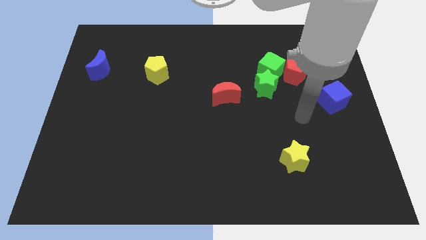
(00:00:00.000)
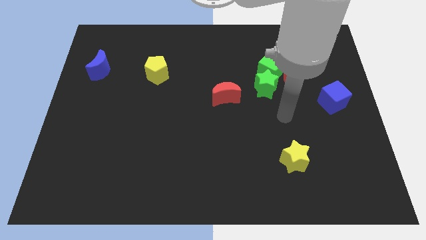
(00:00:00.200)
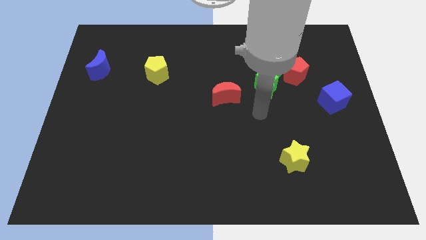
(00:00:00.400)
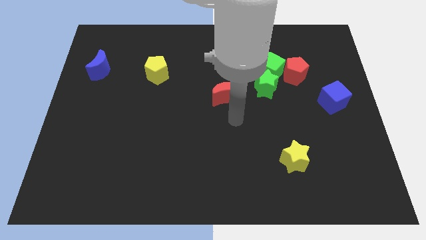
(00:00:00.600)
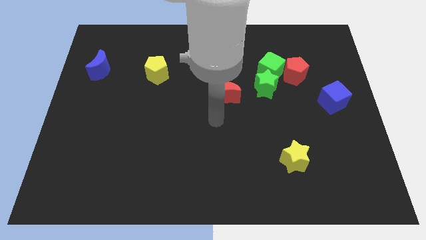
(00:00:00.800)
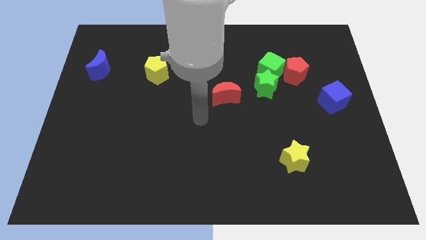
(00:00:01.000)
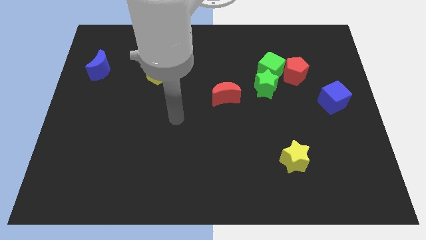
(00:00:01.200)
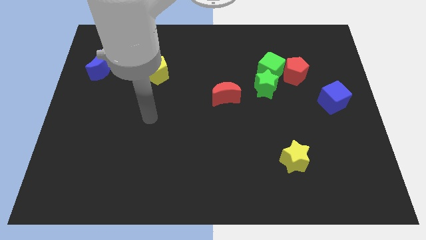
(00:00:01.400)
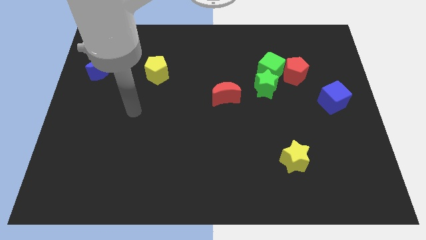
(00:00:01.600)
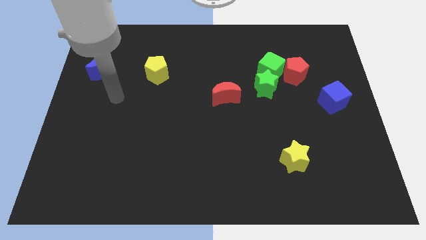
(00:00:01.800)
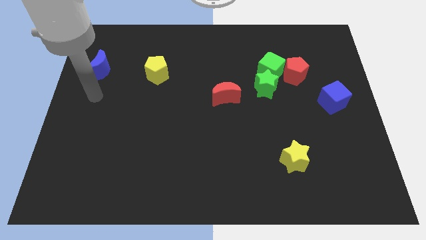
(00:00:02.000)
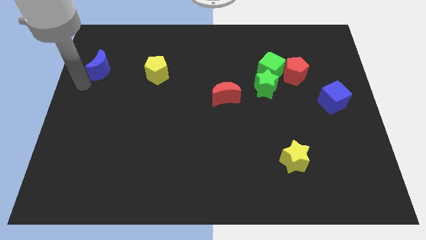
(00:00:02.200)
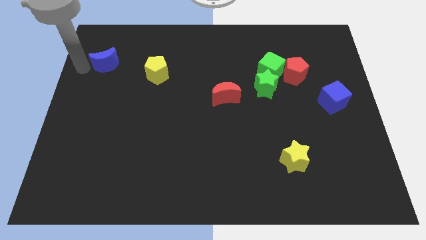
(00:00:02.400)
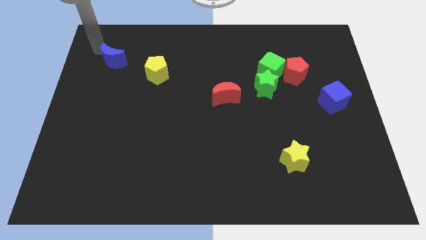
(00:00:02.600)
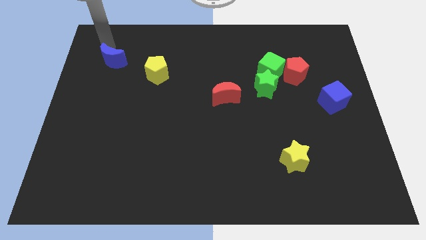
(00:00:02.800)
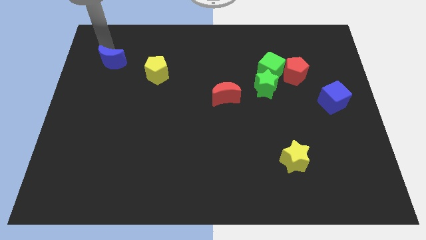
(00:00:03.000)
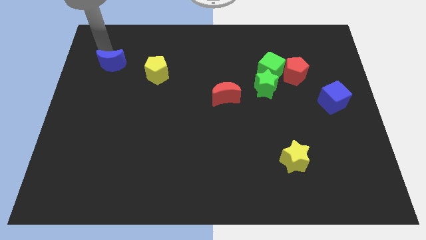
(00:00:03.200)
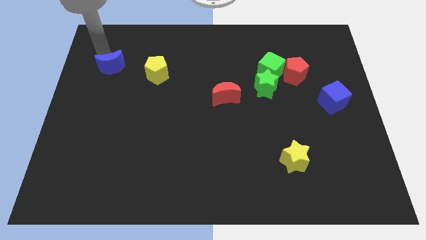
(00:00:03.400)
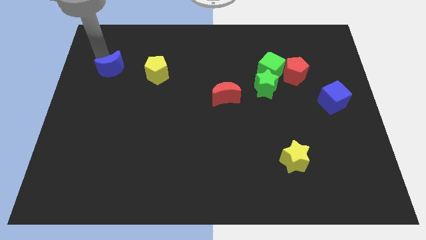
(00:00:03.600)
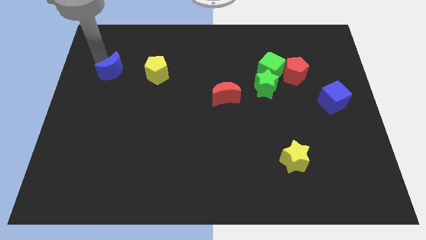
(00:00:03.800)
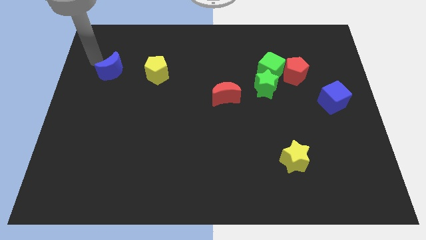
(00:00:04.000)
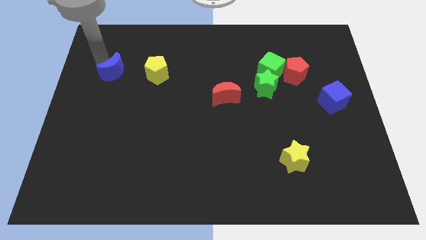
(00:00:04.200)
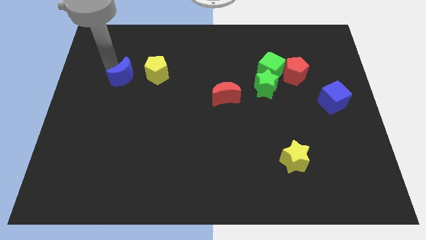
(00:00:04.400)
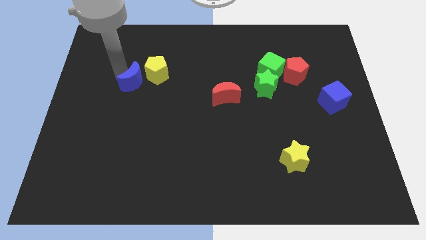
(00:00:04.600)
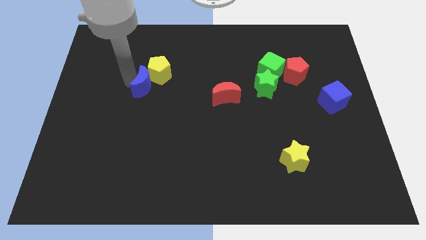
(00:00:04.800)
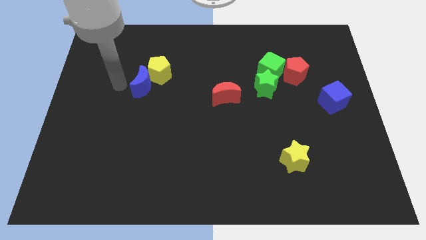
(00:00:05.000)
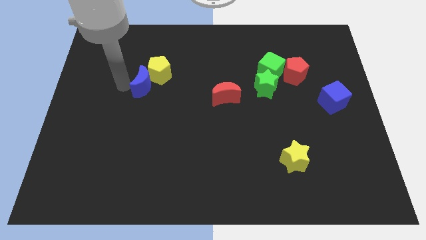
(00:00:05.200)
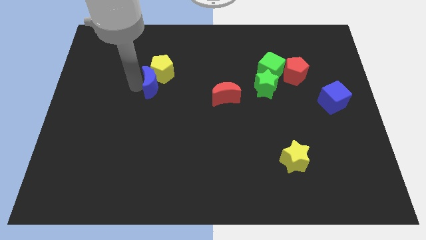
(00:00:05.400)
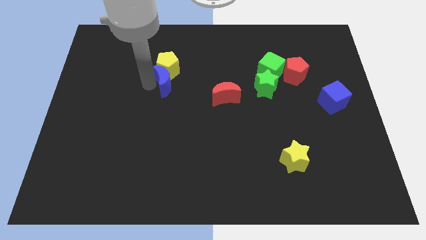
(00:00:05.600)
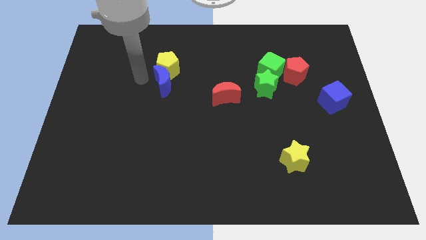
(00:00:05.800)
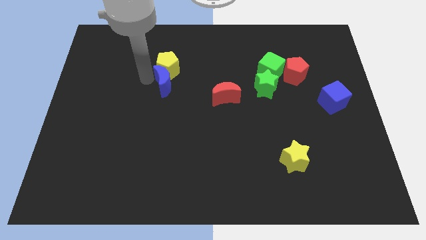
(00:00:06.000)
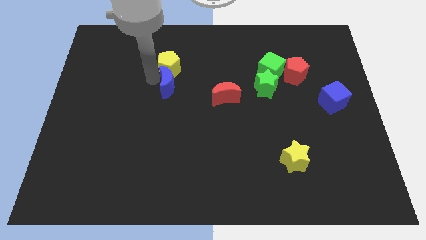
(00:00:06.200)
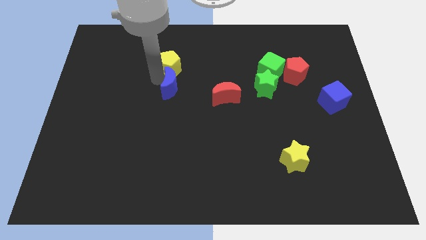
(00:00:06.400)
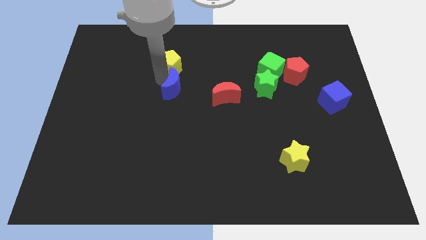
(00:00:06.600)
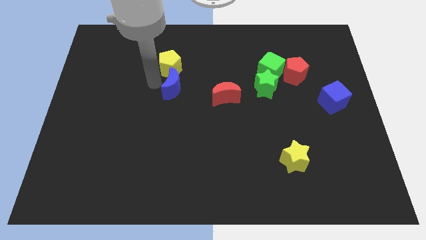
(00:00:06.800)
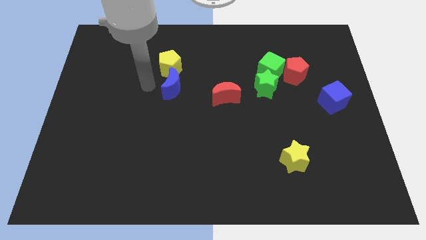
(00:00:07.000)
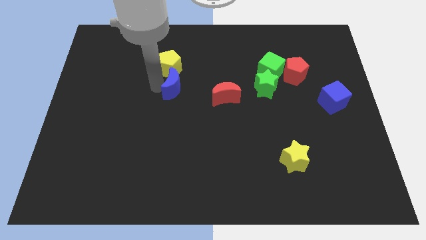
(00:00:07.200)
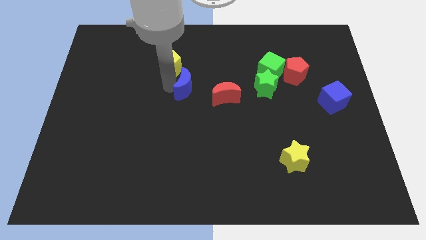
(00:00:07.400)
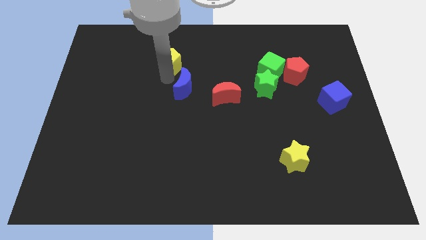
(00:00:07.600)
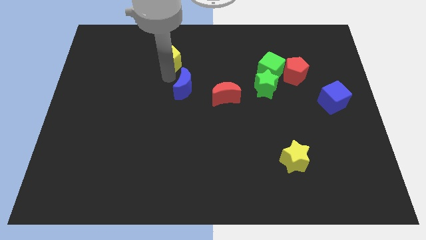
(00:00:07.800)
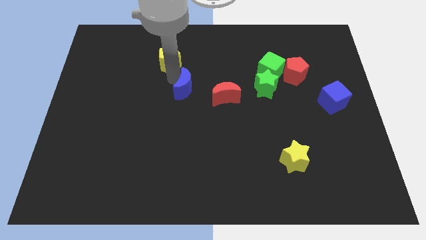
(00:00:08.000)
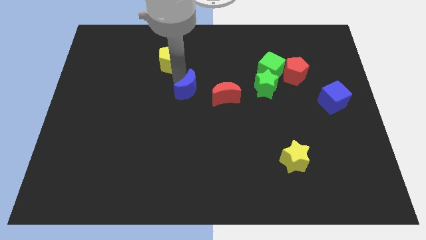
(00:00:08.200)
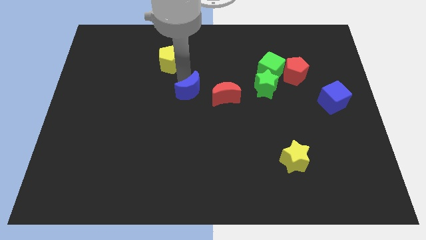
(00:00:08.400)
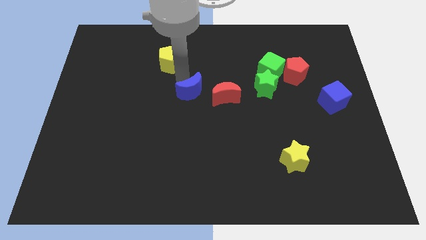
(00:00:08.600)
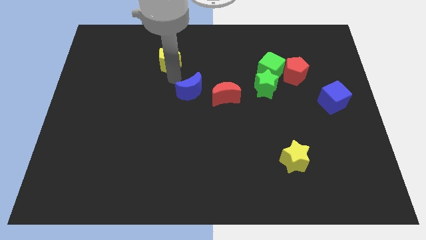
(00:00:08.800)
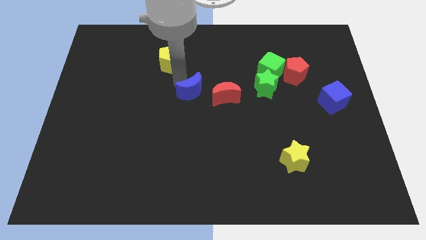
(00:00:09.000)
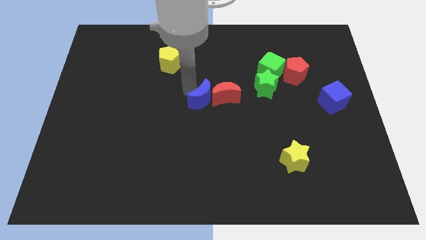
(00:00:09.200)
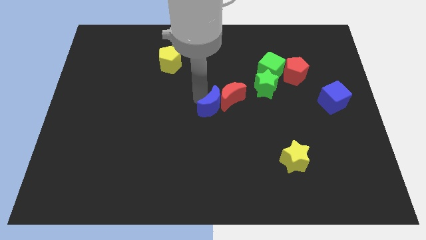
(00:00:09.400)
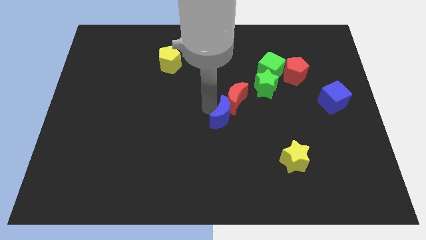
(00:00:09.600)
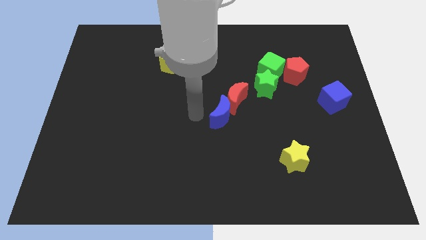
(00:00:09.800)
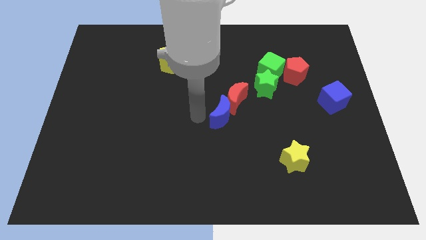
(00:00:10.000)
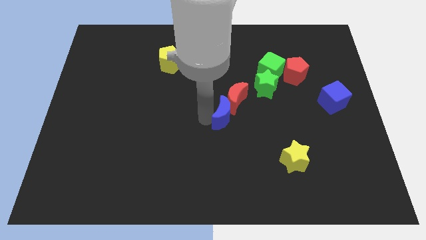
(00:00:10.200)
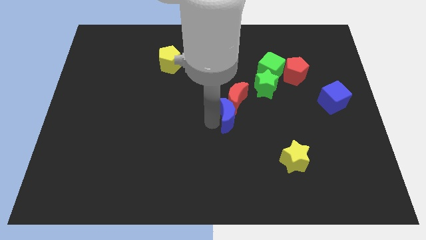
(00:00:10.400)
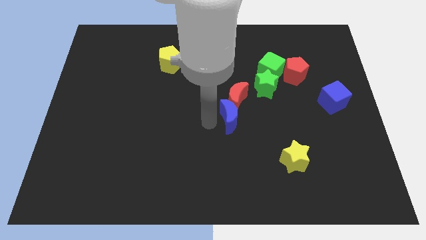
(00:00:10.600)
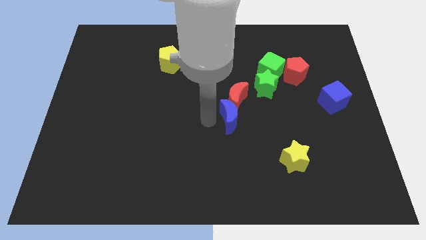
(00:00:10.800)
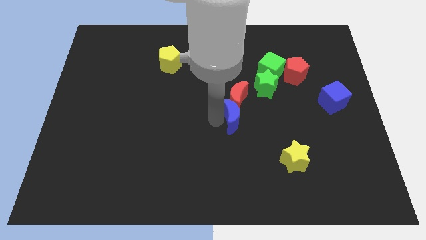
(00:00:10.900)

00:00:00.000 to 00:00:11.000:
move the blue moon to the bottom right side of the red moon

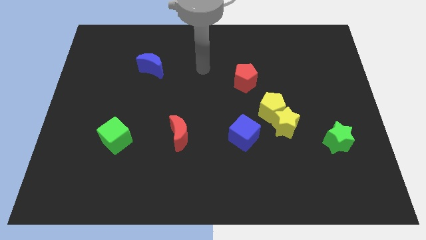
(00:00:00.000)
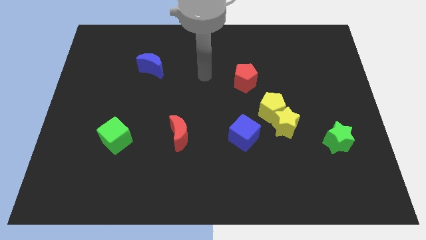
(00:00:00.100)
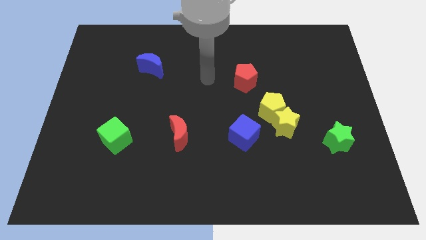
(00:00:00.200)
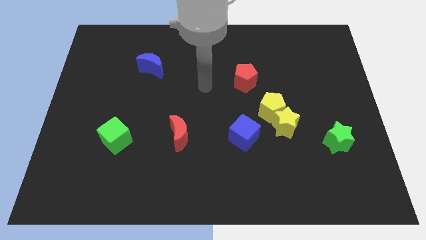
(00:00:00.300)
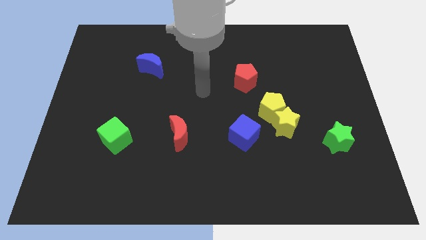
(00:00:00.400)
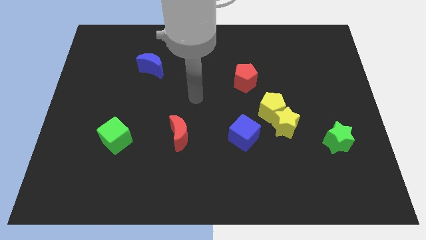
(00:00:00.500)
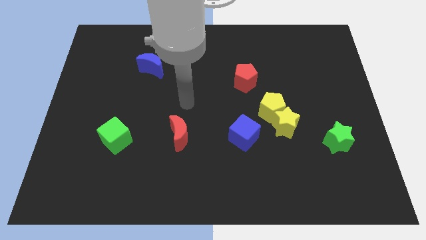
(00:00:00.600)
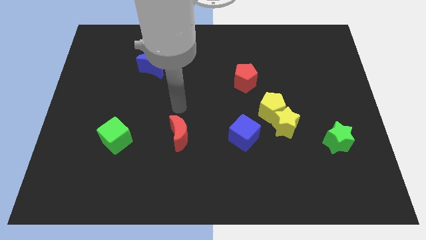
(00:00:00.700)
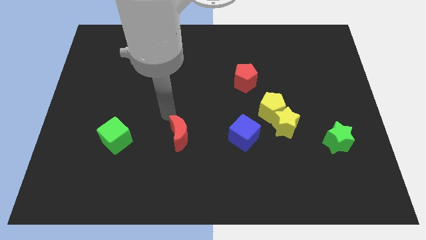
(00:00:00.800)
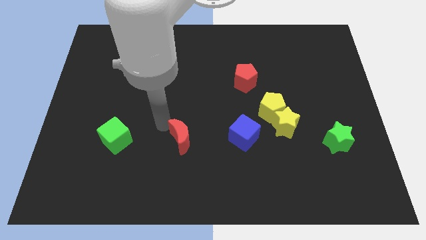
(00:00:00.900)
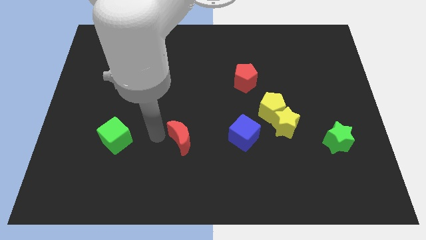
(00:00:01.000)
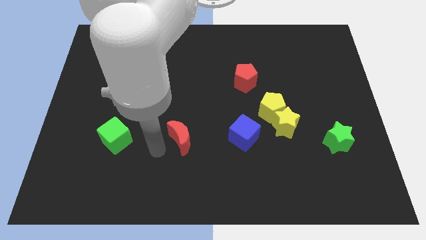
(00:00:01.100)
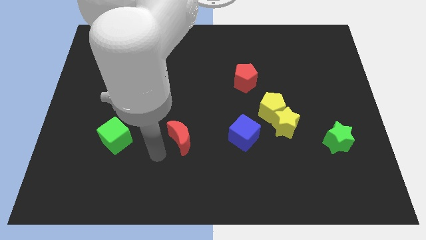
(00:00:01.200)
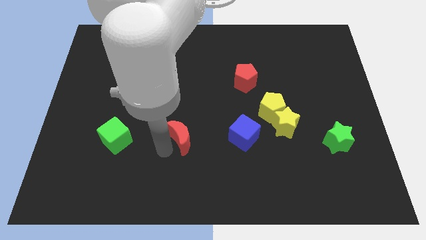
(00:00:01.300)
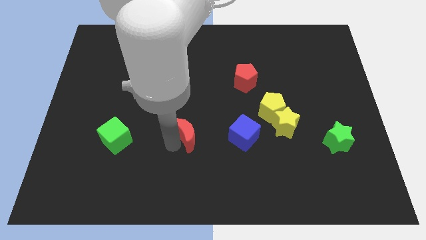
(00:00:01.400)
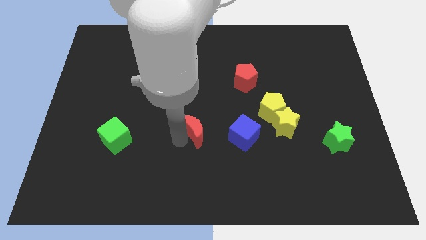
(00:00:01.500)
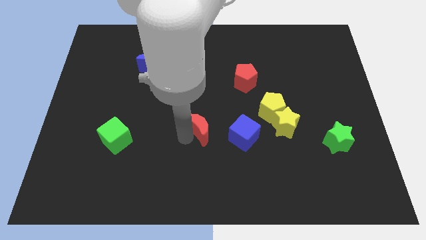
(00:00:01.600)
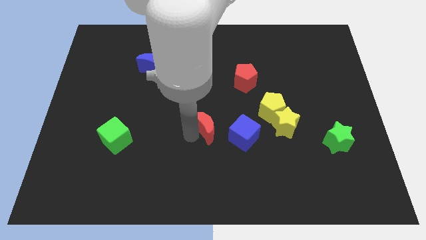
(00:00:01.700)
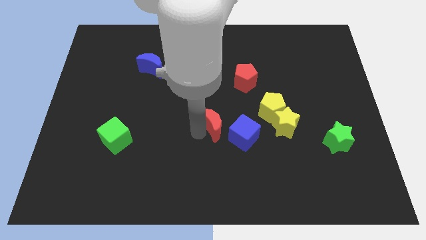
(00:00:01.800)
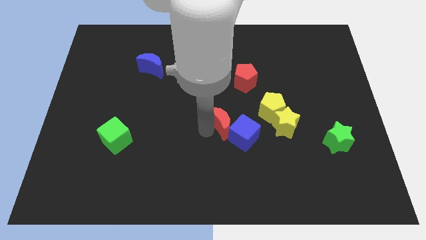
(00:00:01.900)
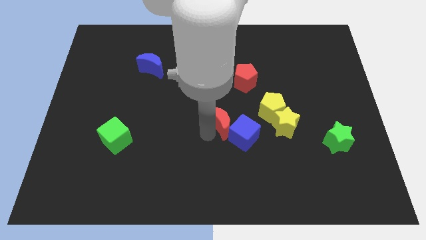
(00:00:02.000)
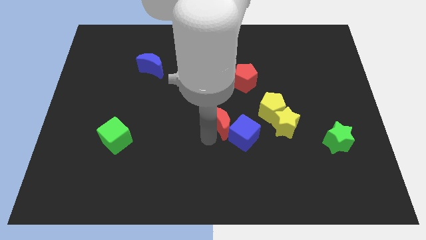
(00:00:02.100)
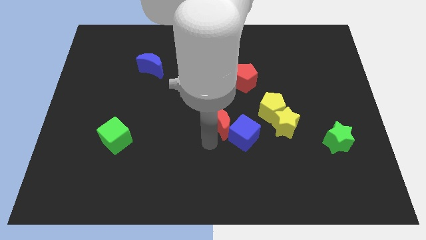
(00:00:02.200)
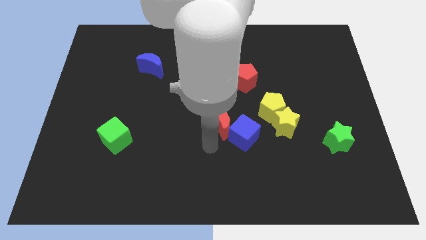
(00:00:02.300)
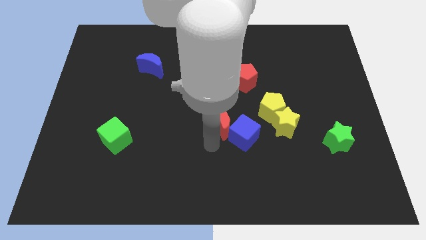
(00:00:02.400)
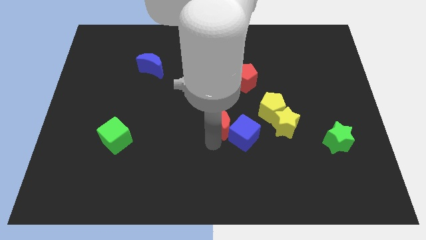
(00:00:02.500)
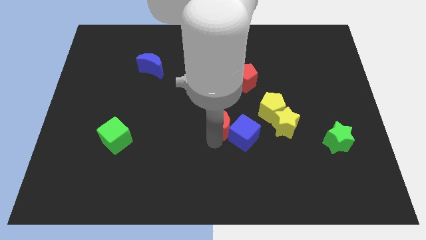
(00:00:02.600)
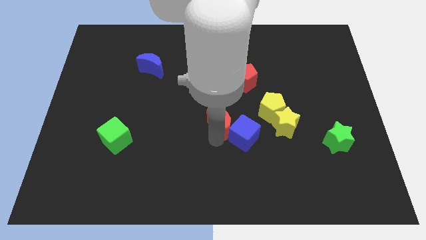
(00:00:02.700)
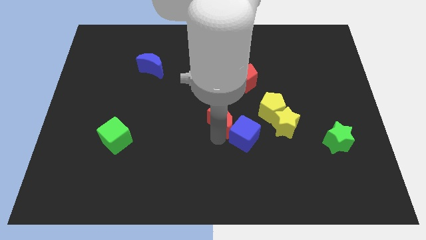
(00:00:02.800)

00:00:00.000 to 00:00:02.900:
move the red moon to the top side of the blue cube
